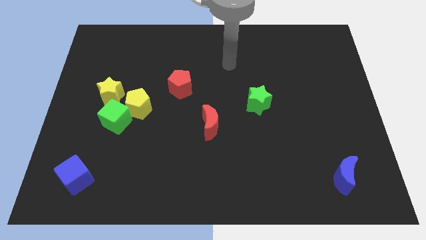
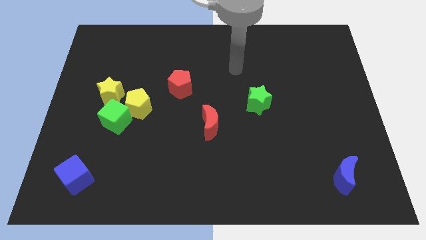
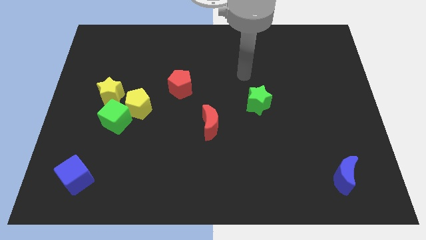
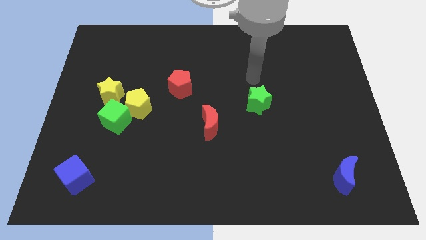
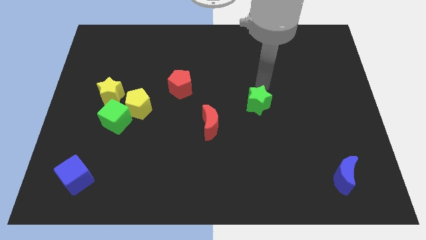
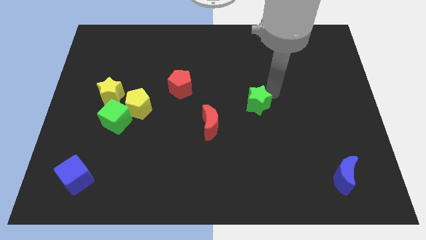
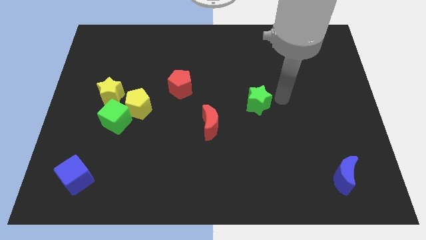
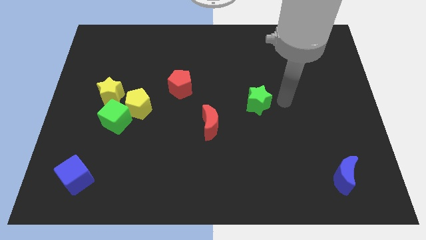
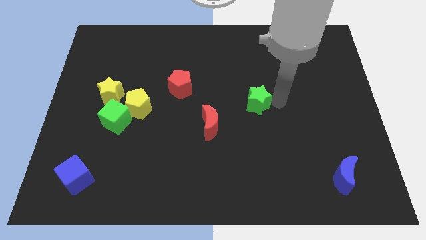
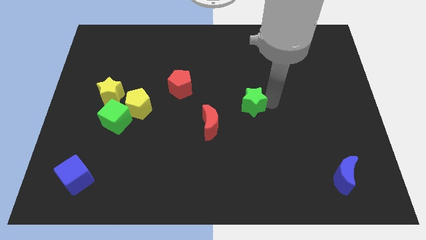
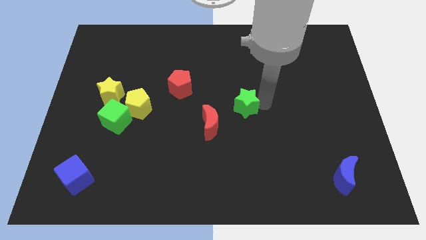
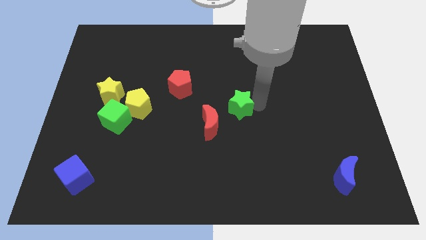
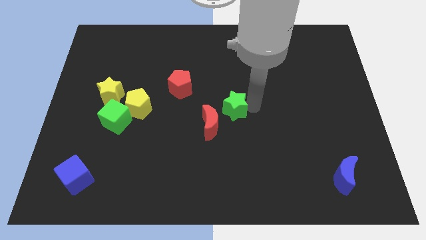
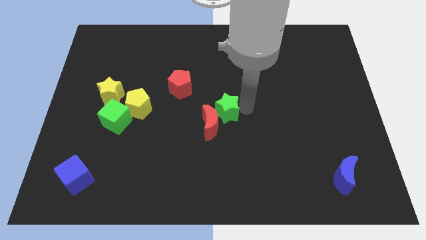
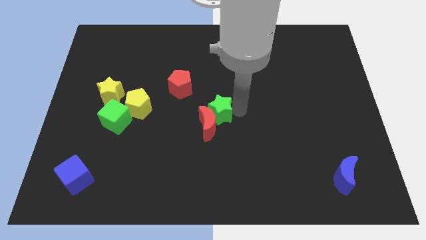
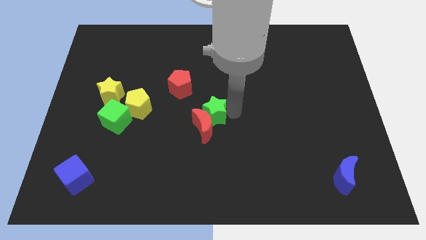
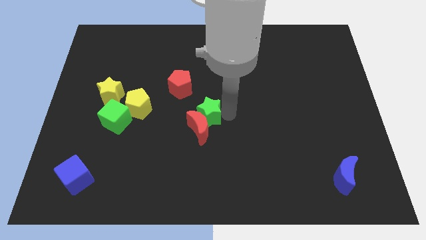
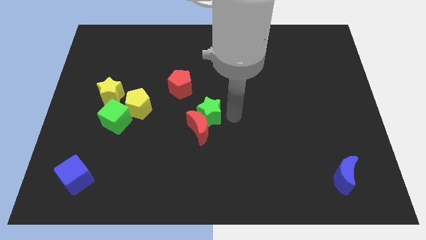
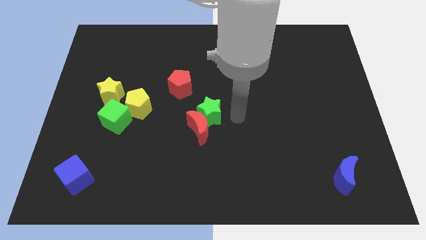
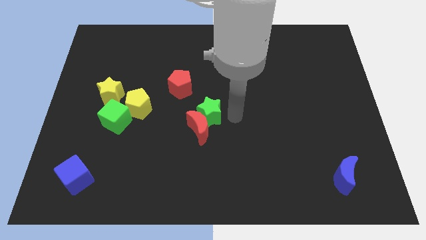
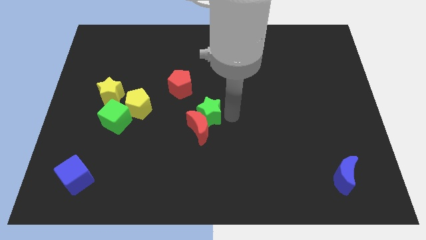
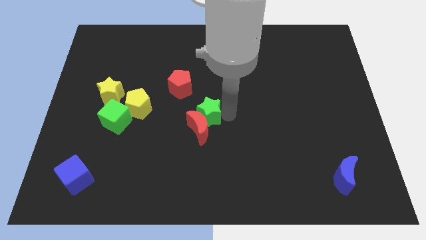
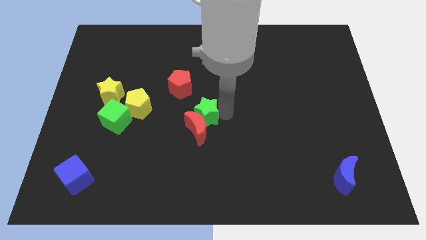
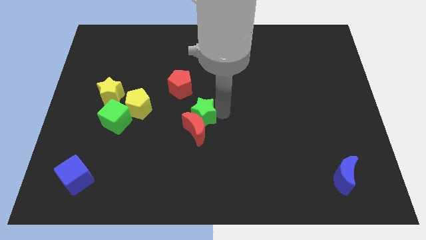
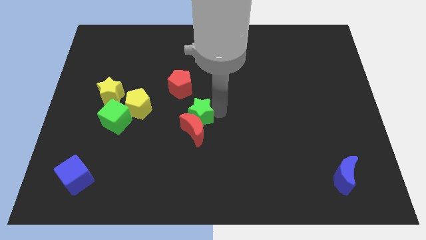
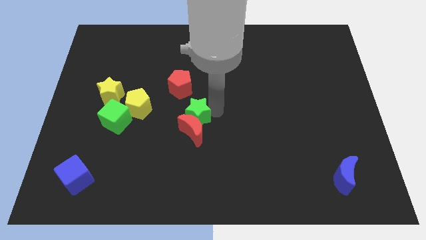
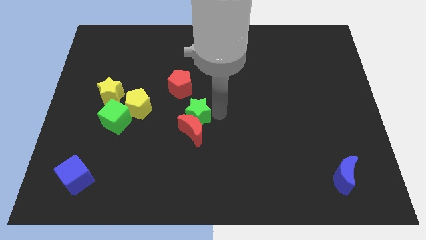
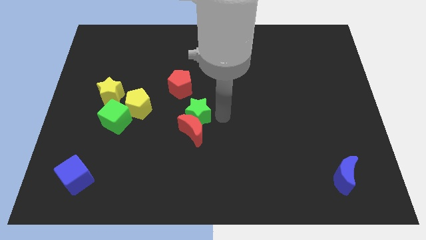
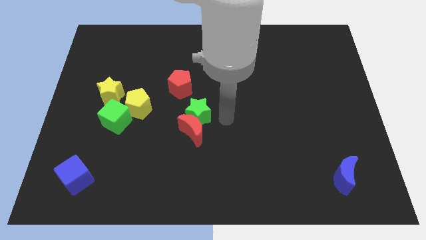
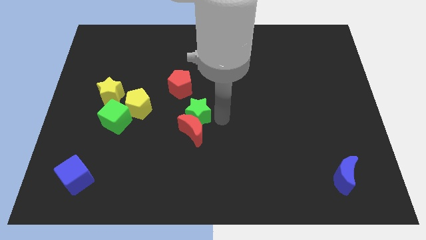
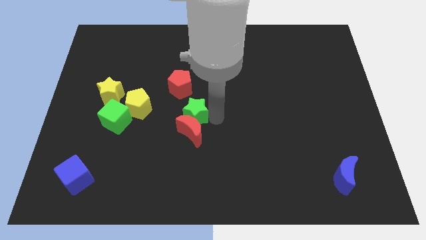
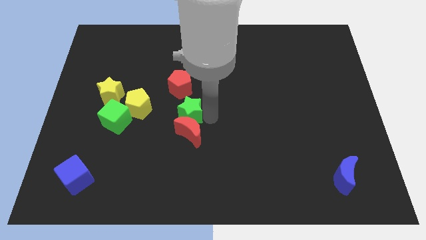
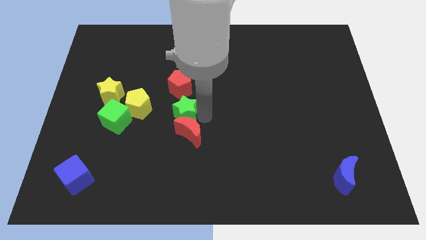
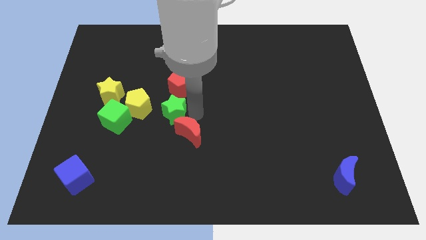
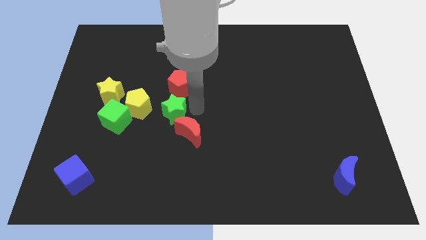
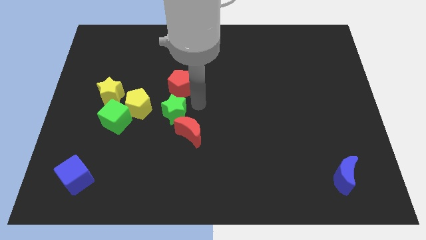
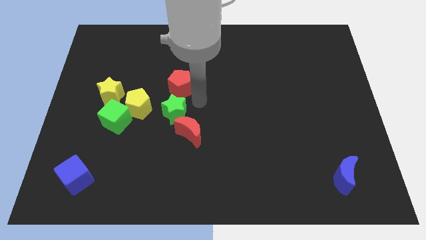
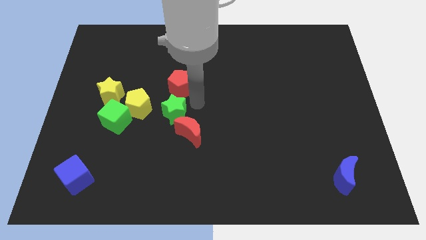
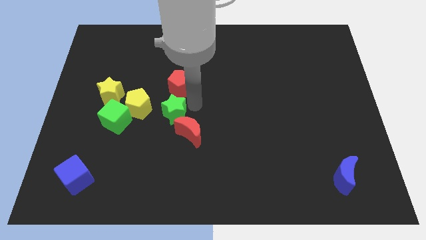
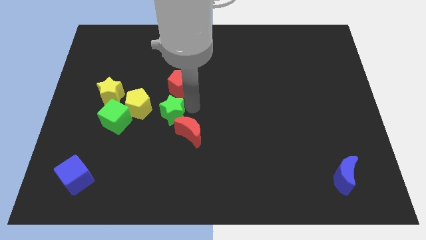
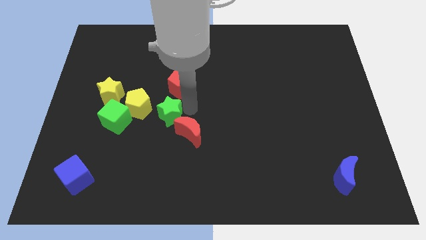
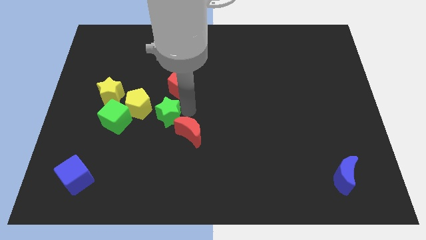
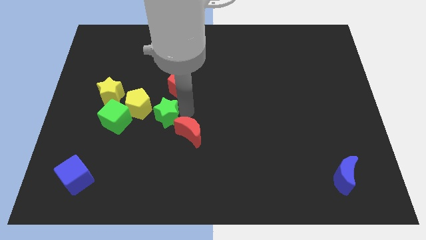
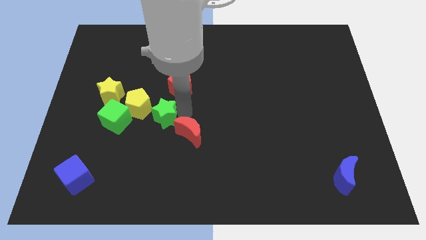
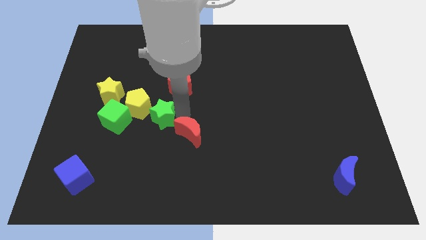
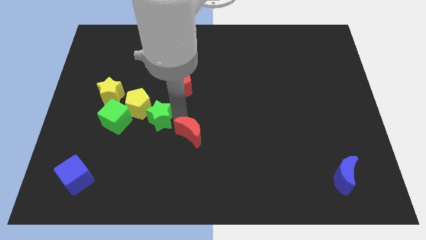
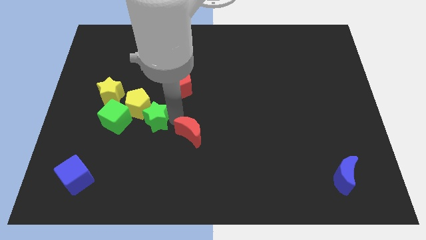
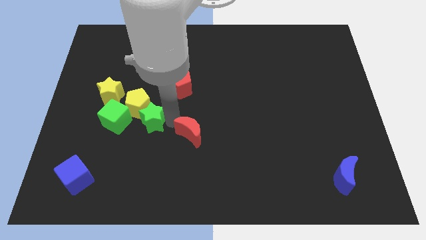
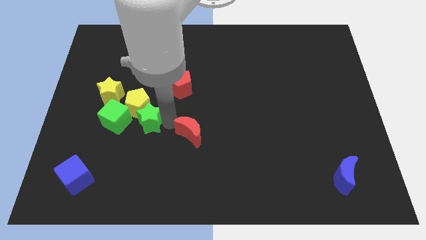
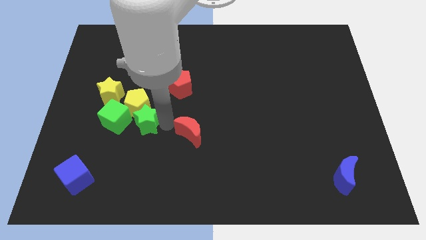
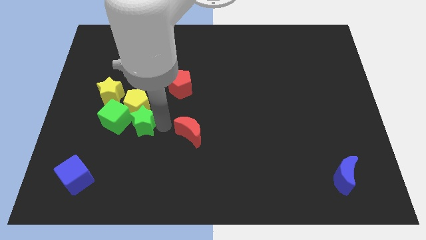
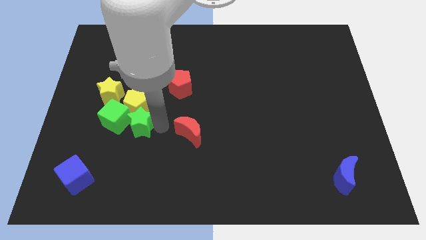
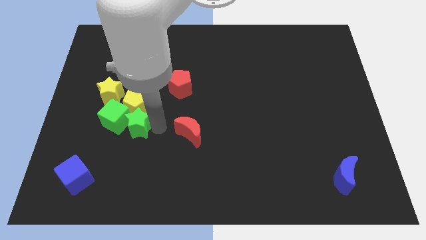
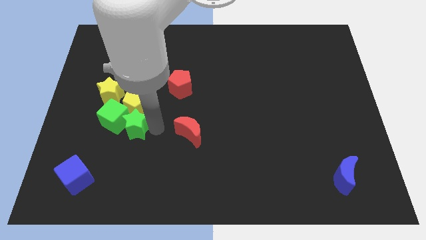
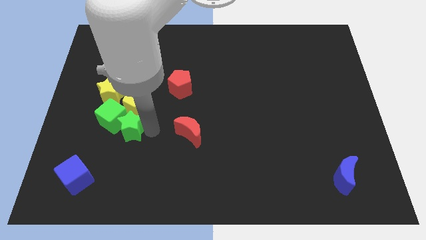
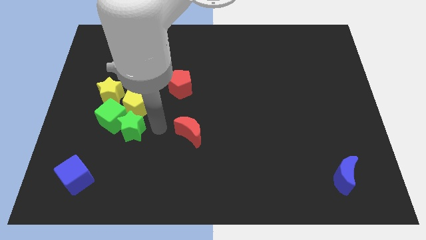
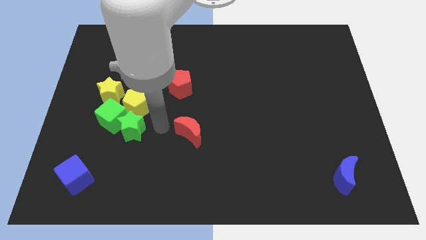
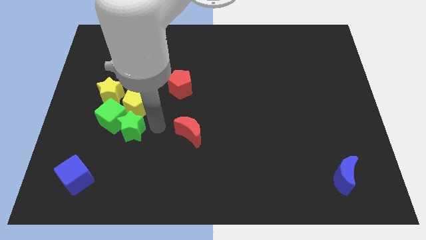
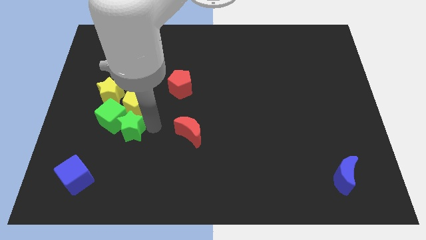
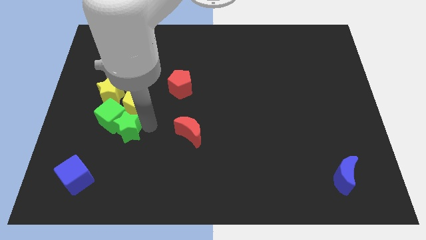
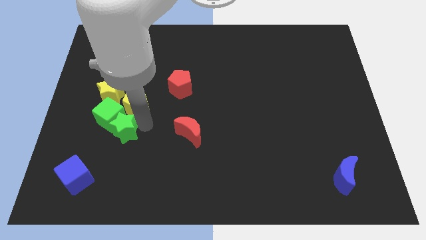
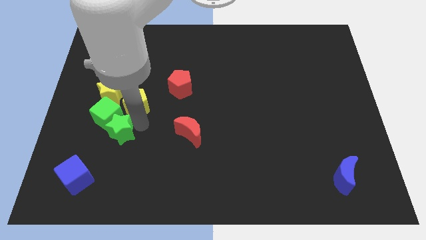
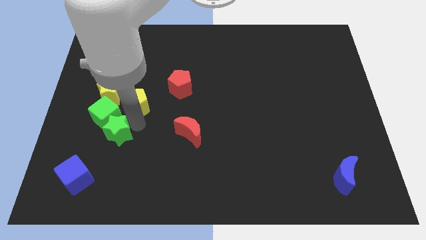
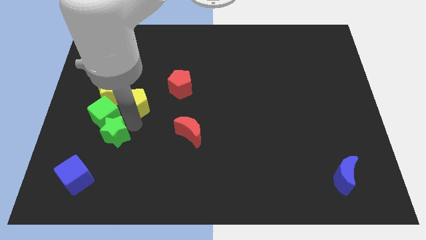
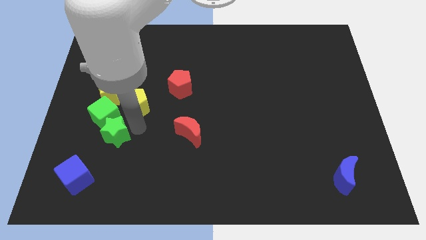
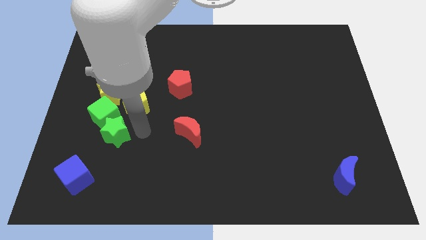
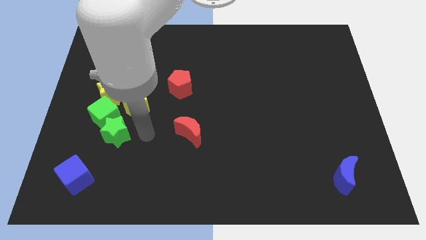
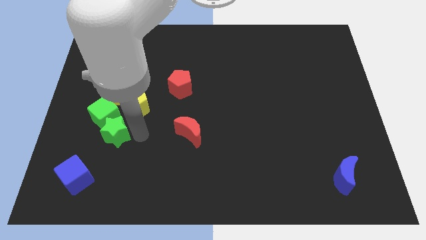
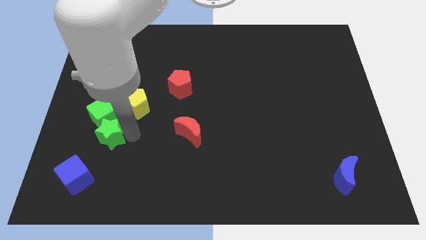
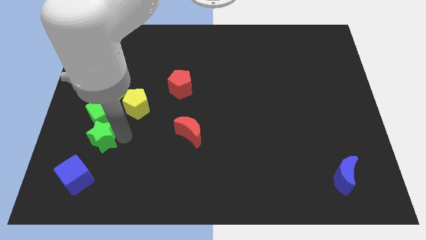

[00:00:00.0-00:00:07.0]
put the green star to the top side of the blue cube

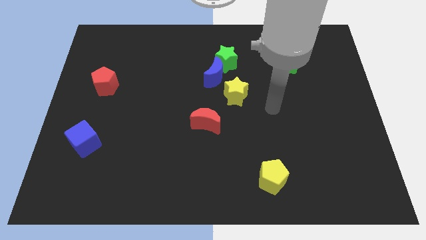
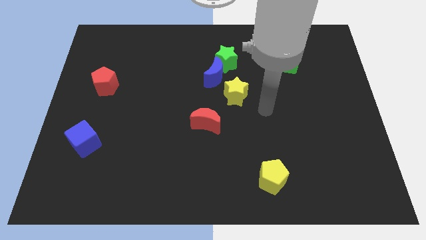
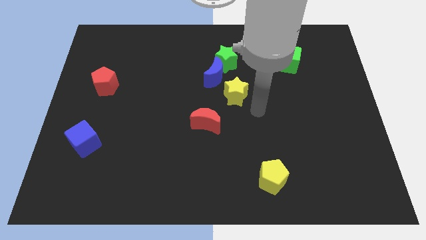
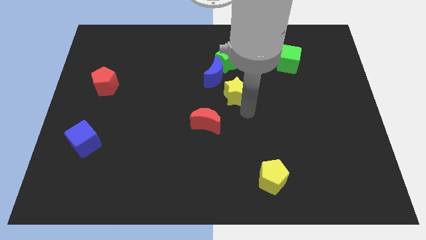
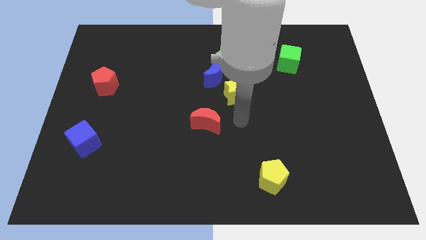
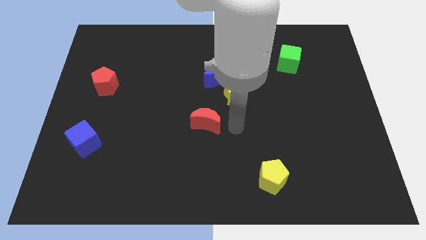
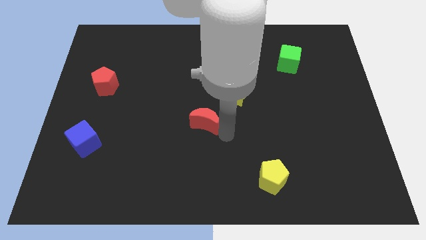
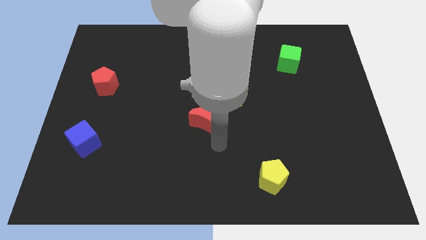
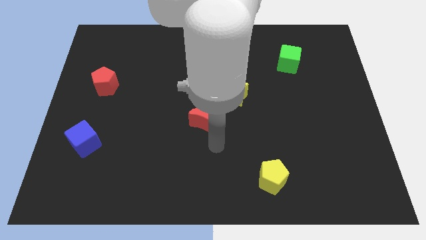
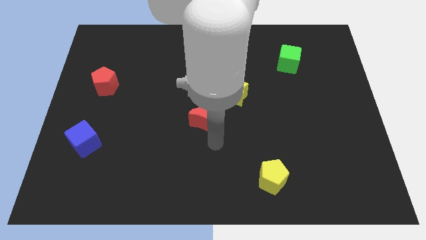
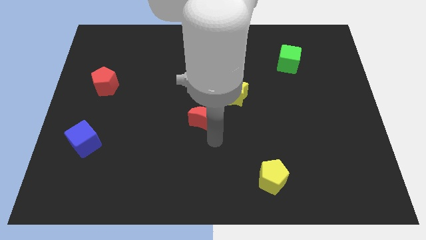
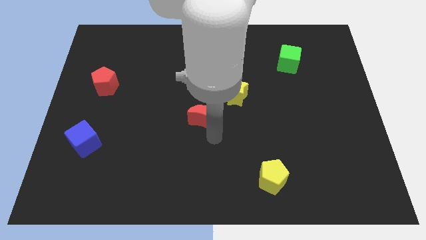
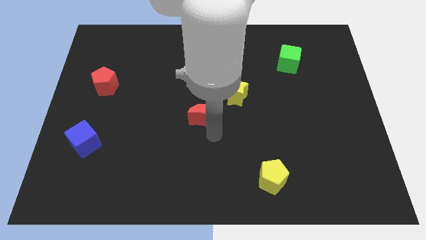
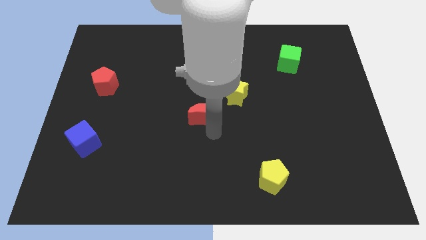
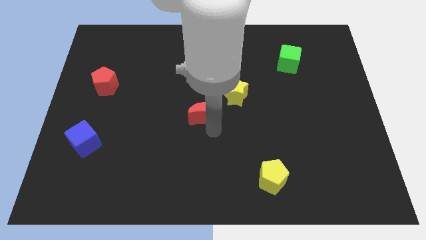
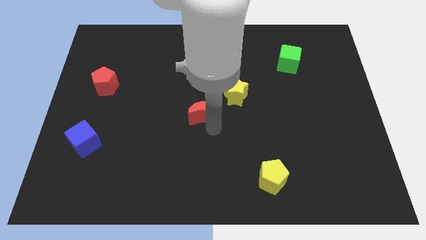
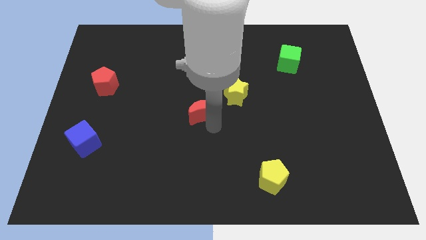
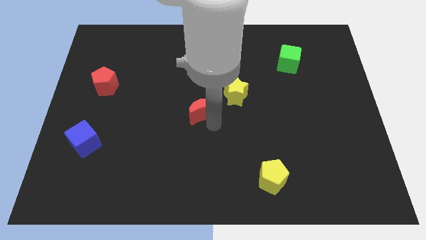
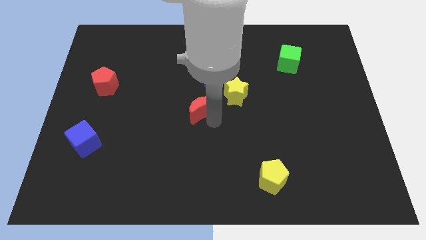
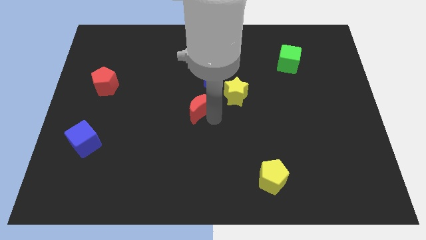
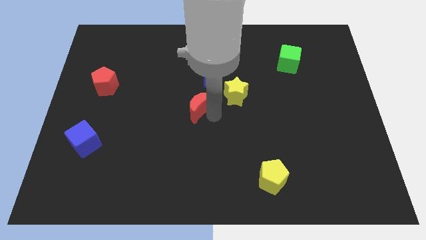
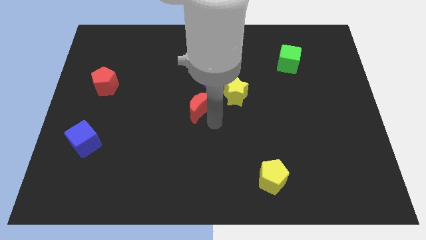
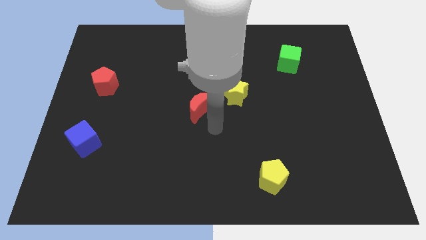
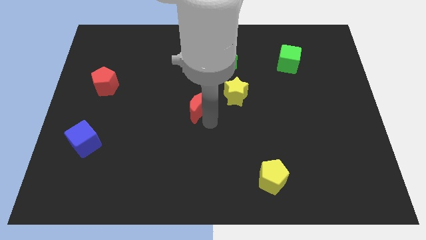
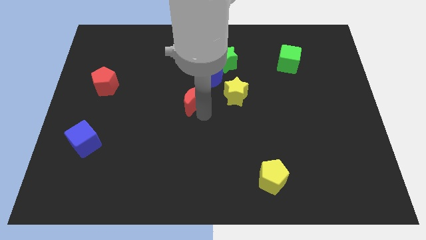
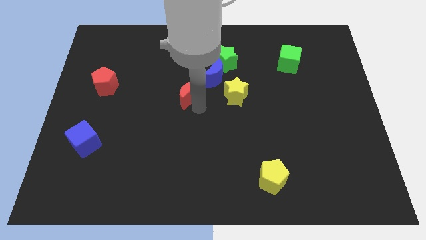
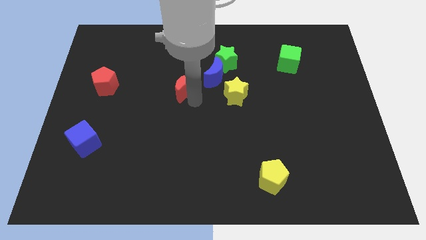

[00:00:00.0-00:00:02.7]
put the red moon left of the blue moon
